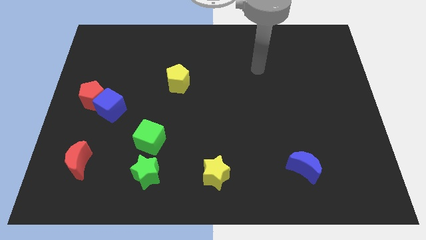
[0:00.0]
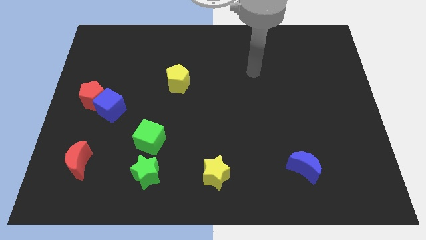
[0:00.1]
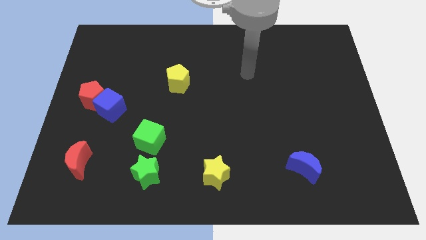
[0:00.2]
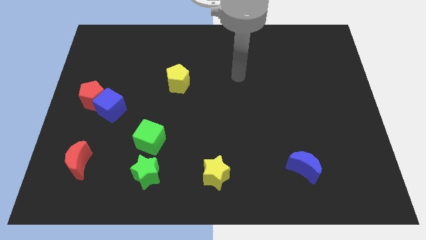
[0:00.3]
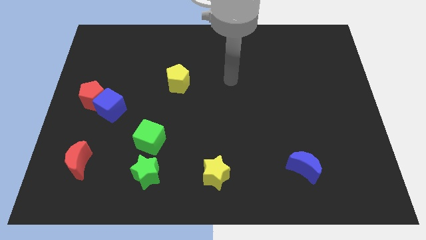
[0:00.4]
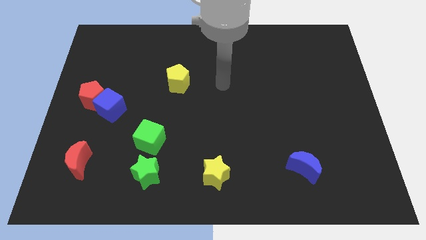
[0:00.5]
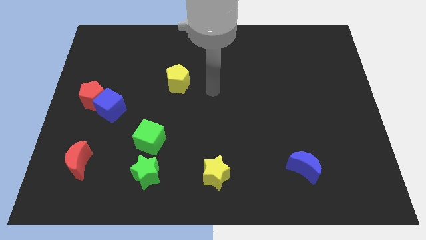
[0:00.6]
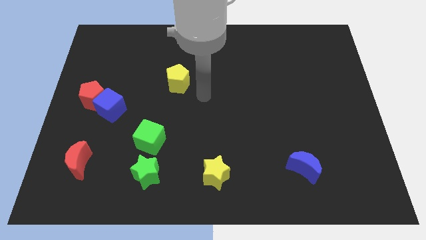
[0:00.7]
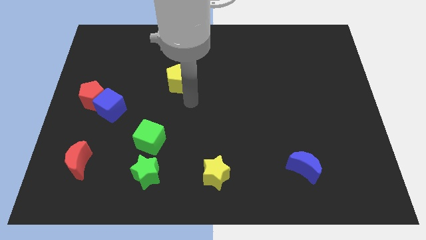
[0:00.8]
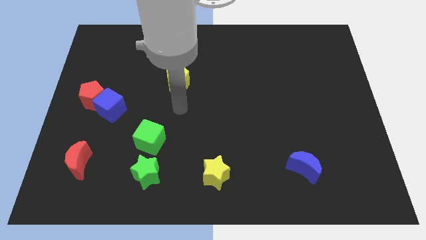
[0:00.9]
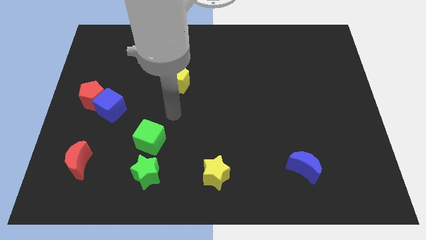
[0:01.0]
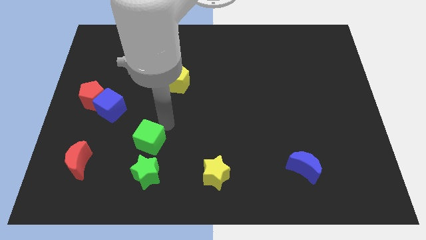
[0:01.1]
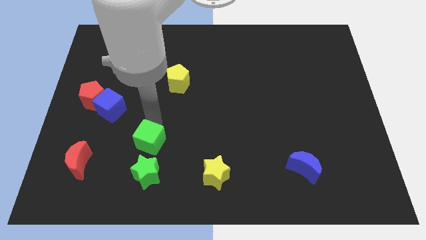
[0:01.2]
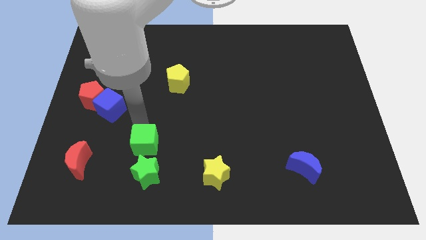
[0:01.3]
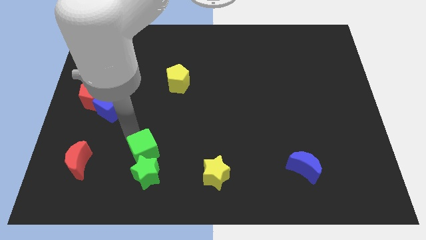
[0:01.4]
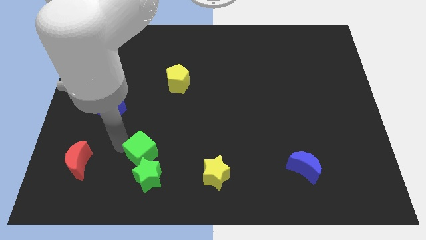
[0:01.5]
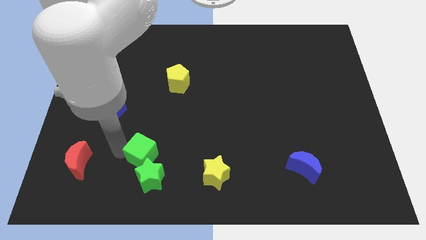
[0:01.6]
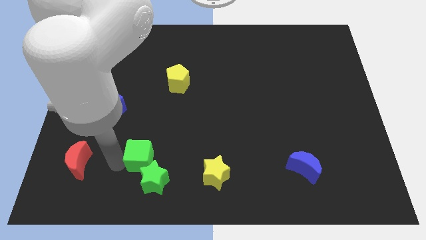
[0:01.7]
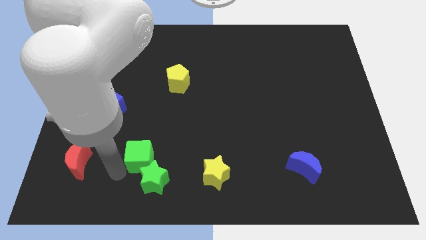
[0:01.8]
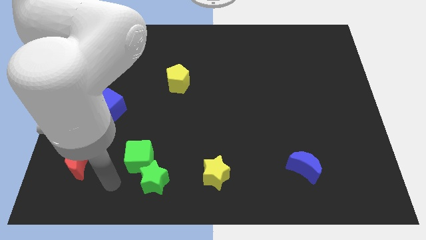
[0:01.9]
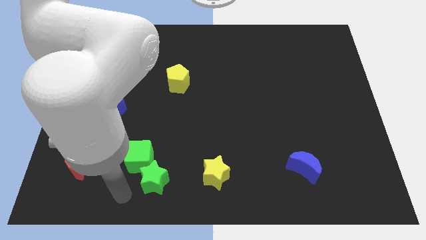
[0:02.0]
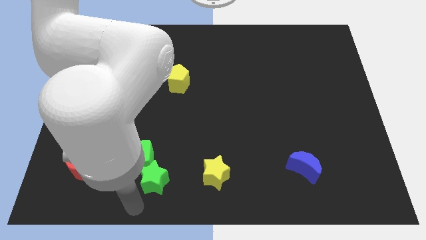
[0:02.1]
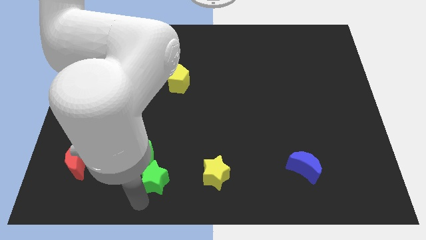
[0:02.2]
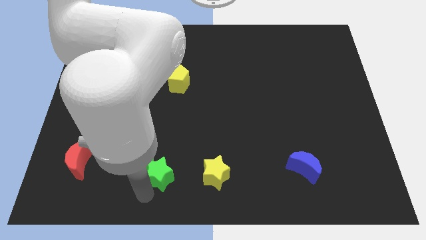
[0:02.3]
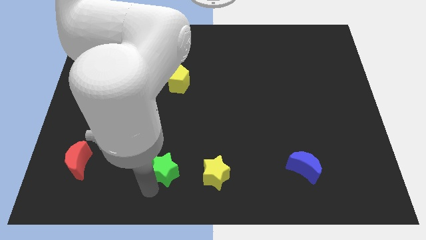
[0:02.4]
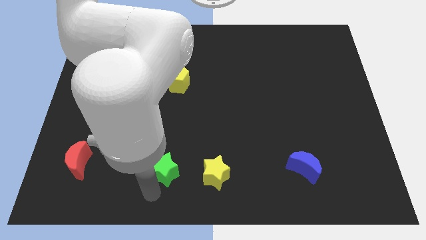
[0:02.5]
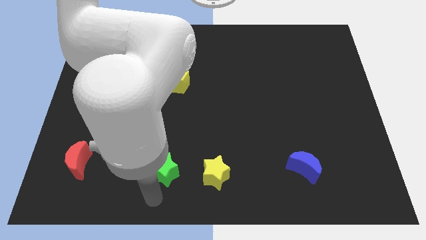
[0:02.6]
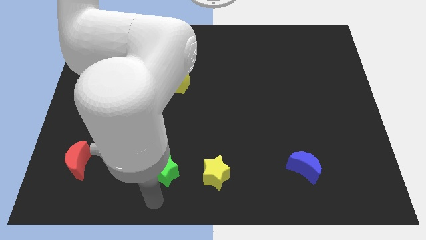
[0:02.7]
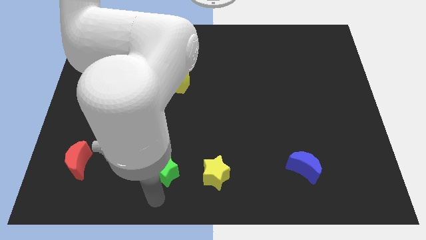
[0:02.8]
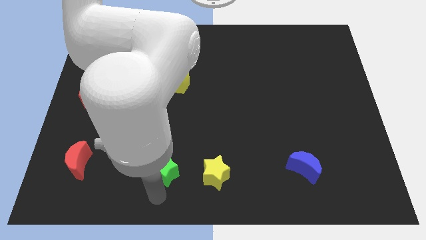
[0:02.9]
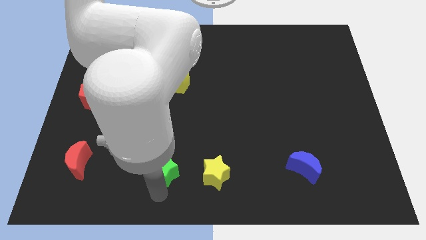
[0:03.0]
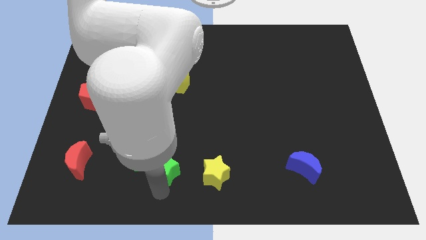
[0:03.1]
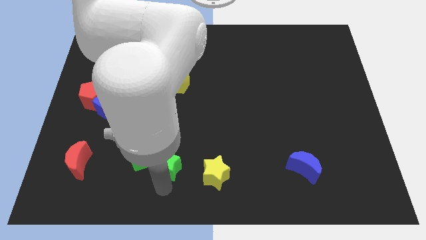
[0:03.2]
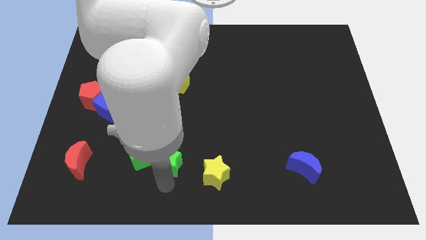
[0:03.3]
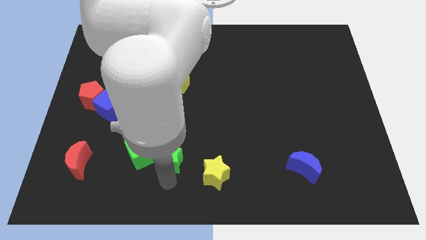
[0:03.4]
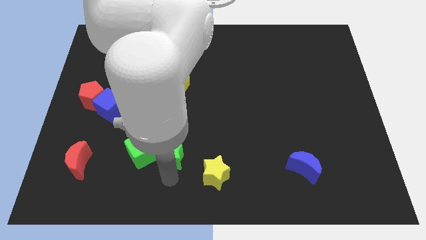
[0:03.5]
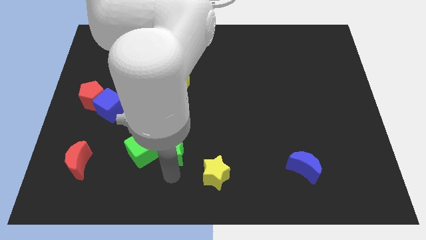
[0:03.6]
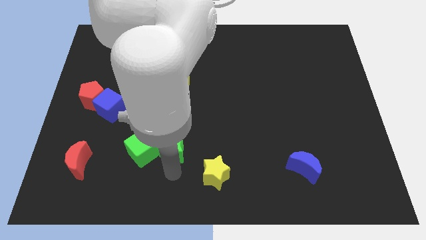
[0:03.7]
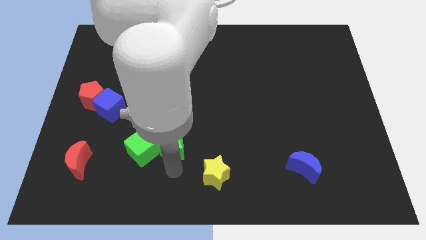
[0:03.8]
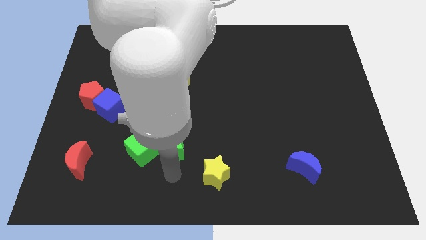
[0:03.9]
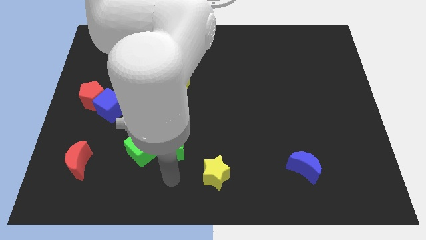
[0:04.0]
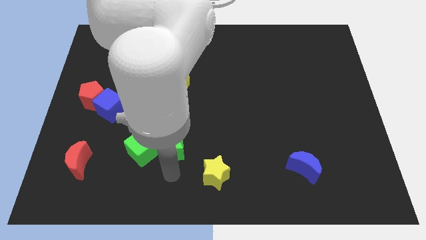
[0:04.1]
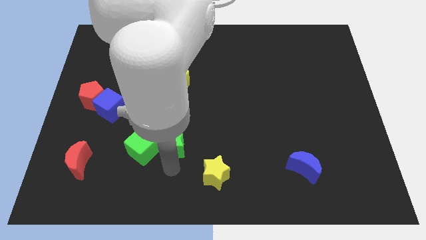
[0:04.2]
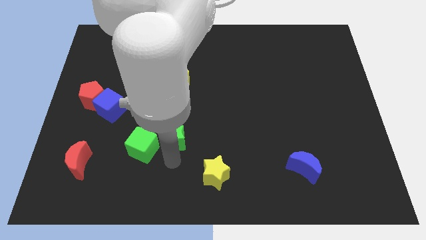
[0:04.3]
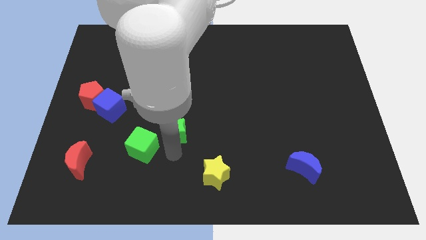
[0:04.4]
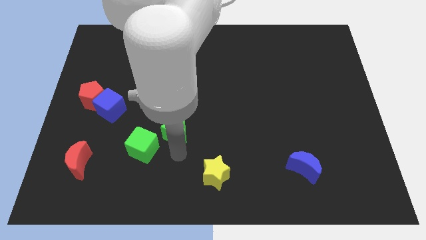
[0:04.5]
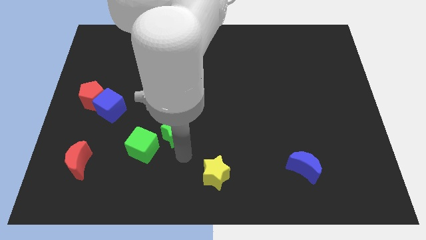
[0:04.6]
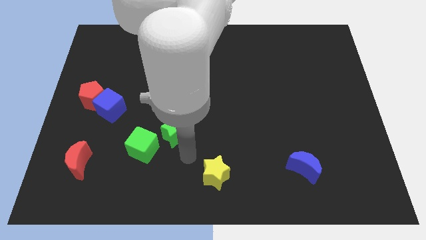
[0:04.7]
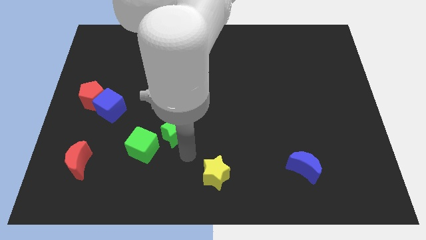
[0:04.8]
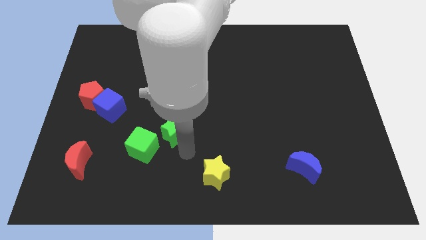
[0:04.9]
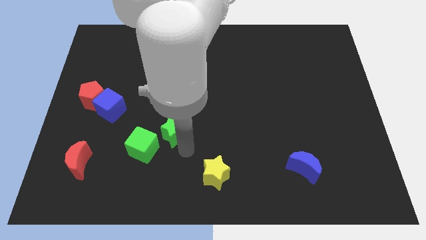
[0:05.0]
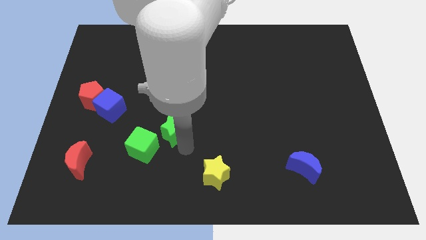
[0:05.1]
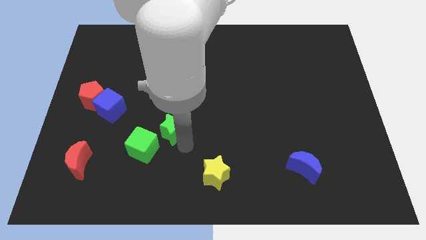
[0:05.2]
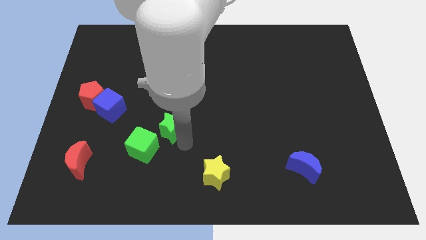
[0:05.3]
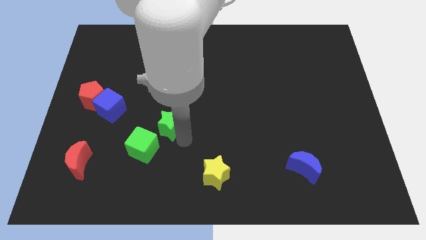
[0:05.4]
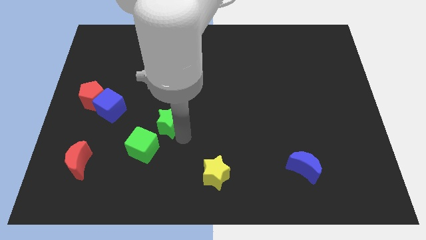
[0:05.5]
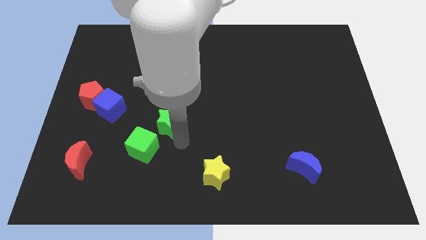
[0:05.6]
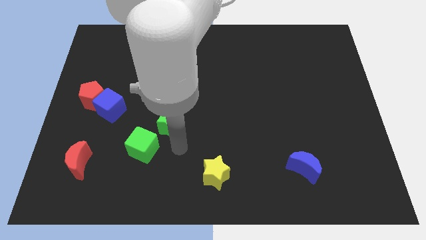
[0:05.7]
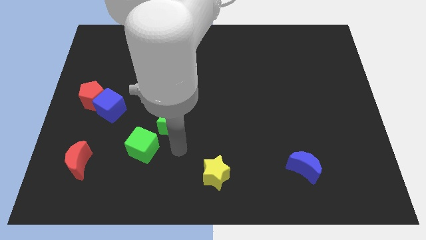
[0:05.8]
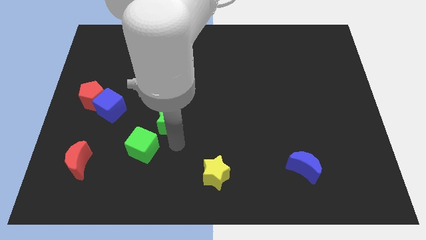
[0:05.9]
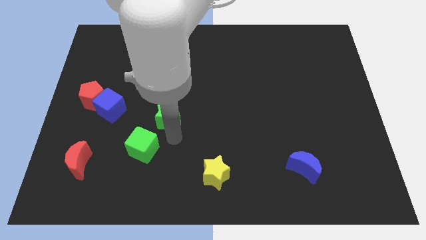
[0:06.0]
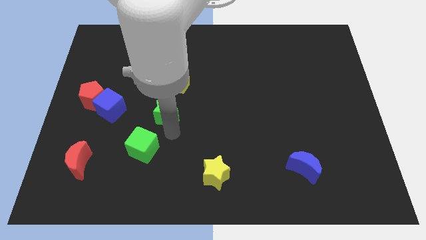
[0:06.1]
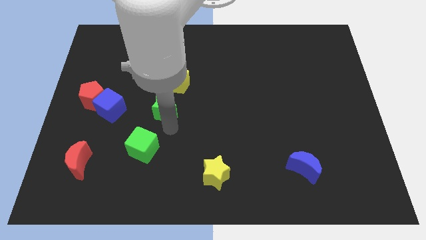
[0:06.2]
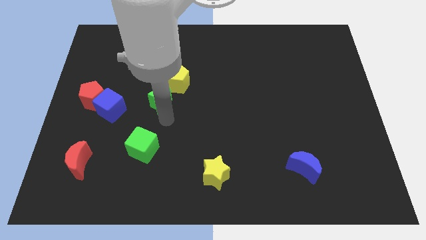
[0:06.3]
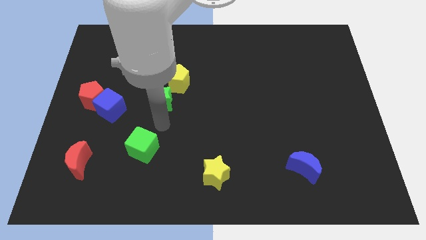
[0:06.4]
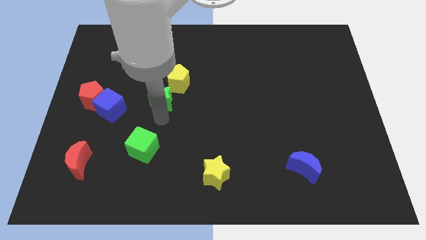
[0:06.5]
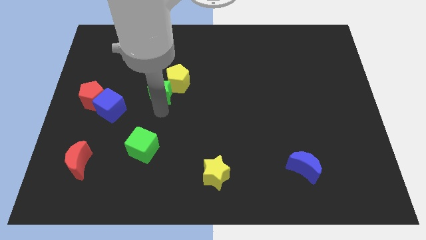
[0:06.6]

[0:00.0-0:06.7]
slide the green star up

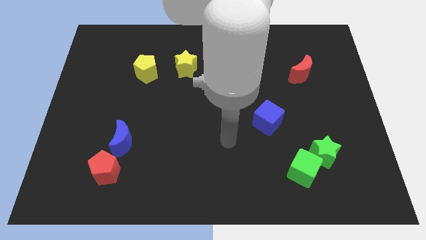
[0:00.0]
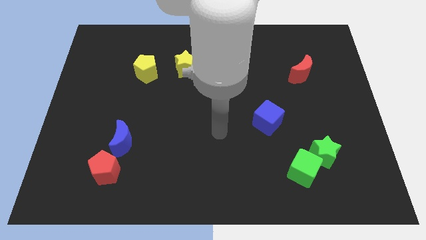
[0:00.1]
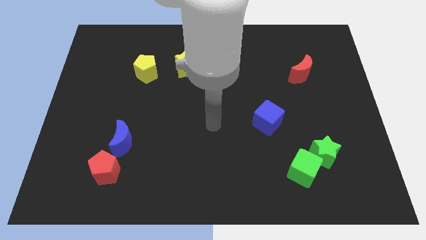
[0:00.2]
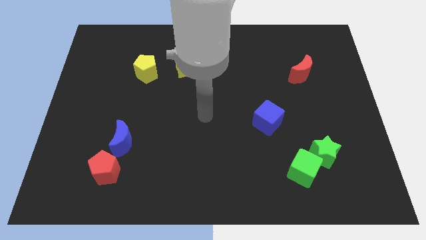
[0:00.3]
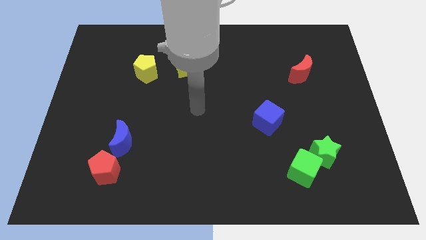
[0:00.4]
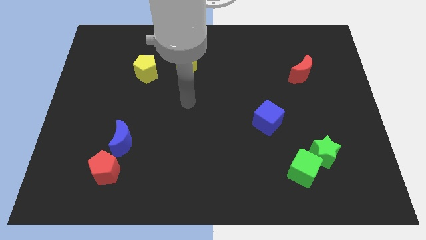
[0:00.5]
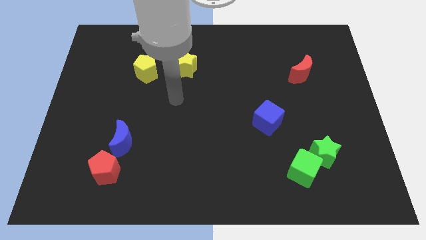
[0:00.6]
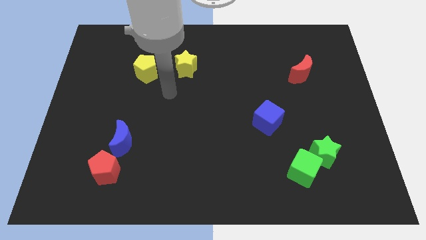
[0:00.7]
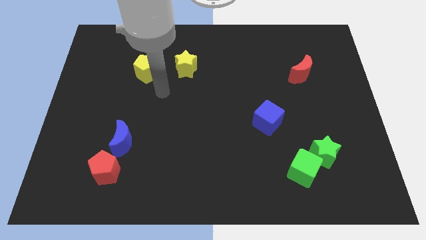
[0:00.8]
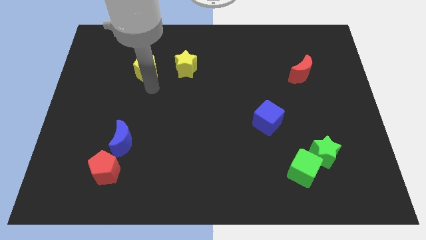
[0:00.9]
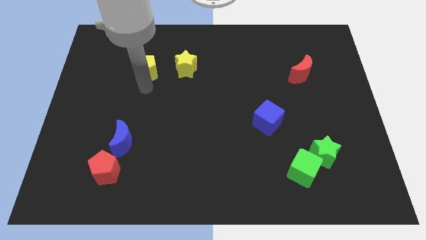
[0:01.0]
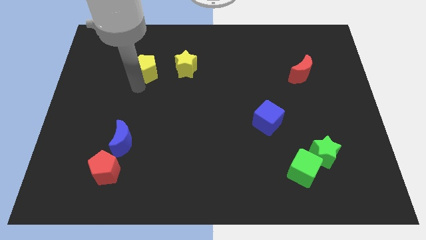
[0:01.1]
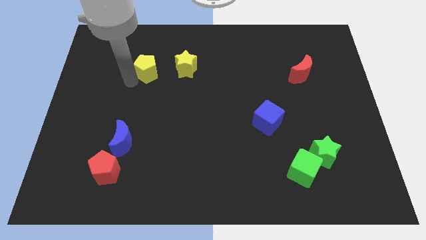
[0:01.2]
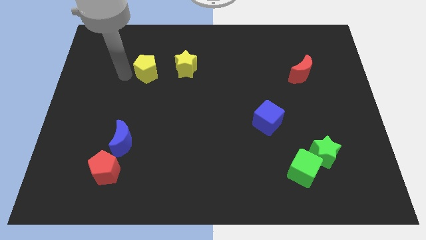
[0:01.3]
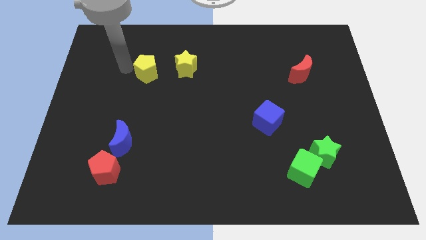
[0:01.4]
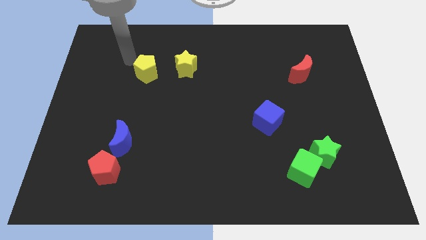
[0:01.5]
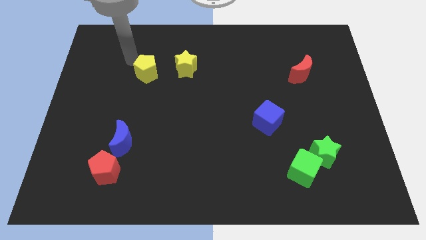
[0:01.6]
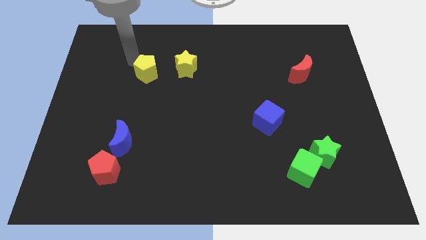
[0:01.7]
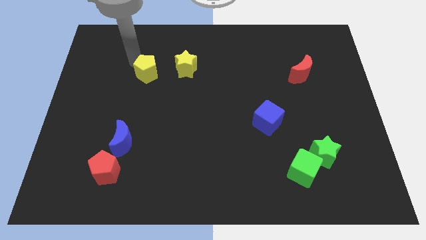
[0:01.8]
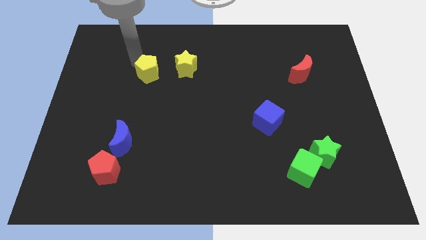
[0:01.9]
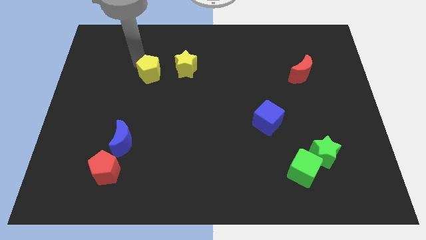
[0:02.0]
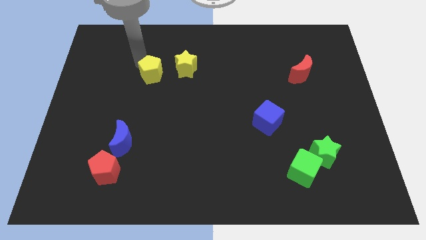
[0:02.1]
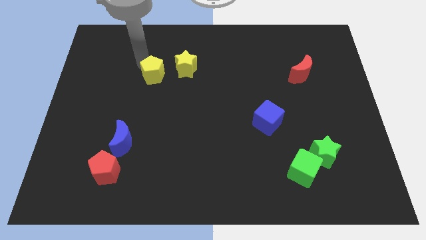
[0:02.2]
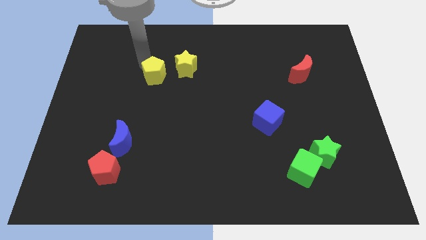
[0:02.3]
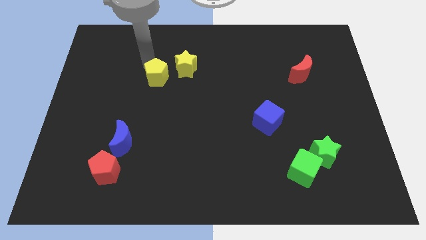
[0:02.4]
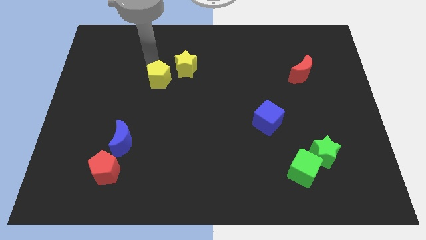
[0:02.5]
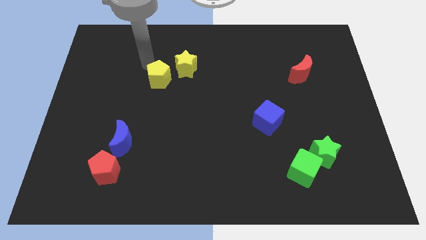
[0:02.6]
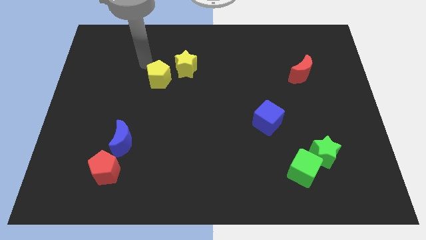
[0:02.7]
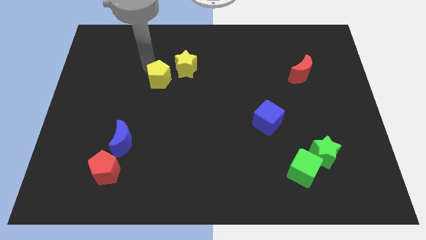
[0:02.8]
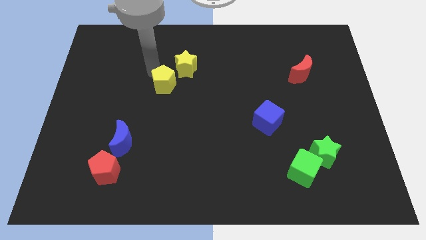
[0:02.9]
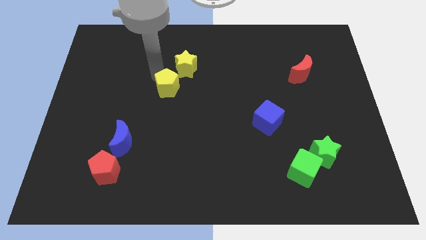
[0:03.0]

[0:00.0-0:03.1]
push the yellow pentagon slightly down and to the right diagonally
